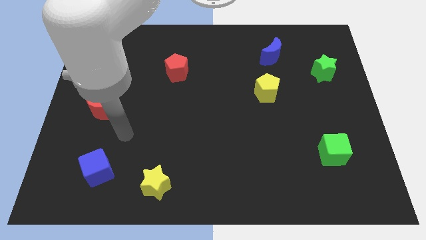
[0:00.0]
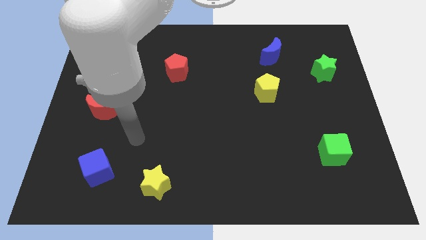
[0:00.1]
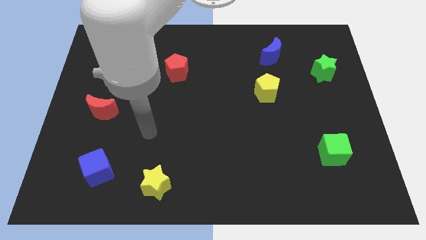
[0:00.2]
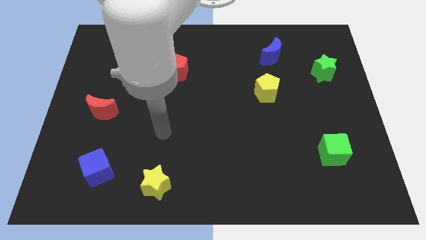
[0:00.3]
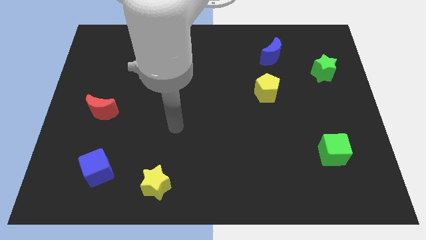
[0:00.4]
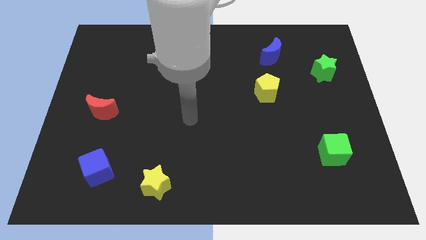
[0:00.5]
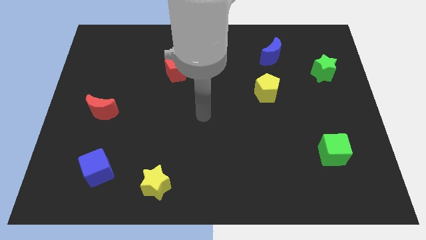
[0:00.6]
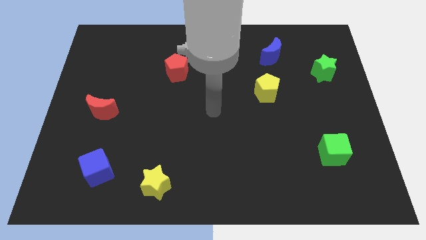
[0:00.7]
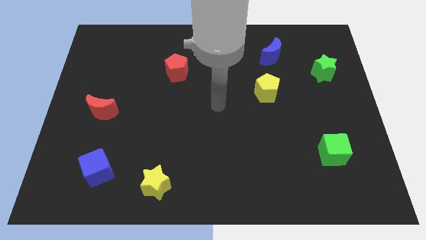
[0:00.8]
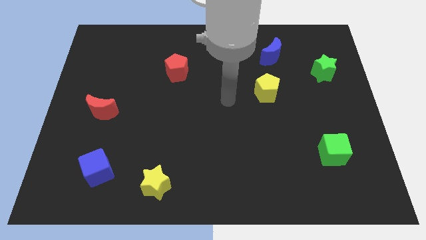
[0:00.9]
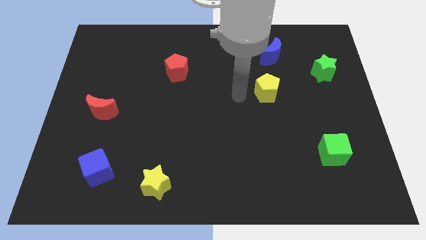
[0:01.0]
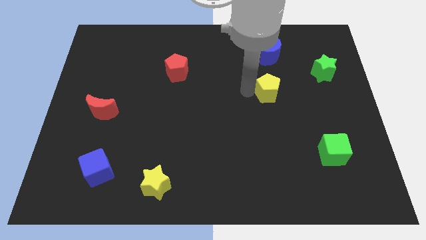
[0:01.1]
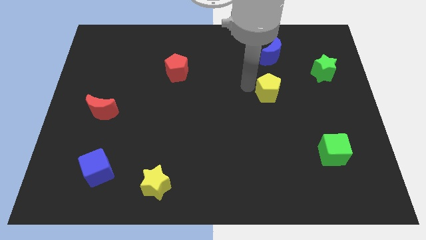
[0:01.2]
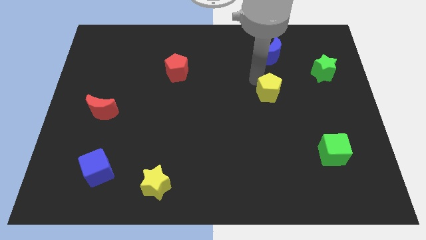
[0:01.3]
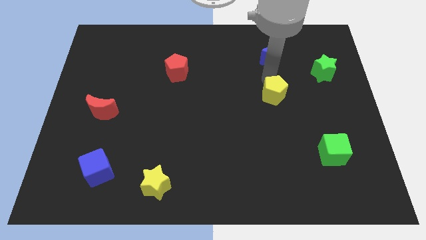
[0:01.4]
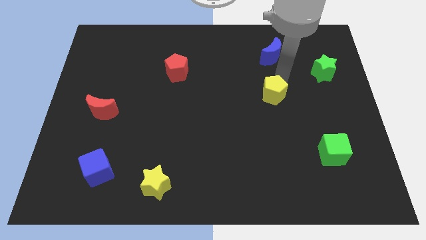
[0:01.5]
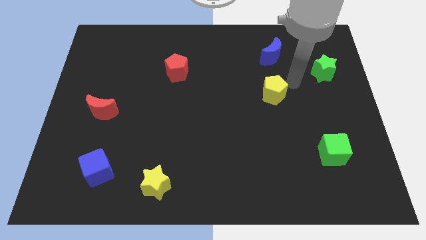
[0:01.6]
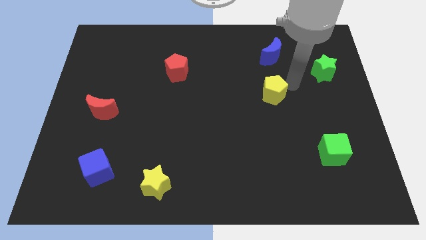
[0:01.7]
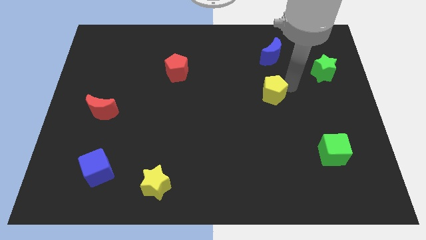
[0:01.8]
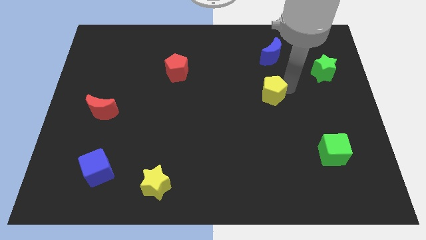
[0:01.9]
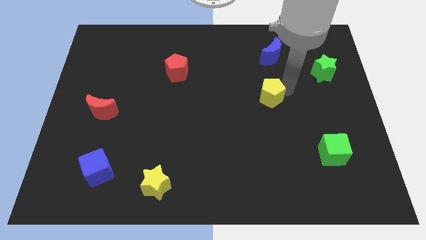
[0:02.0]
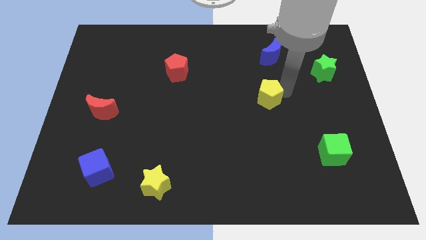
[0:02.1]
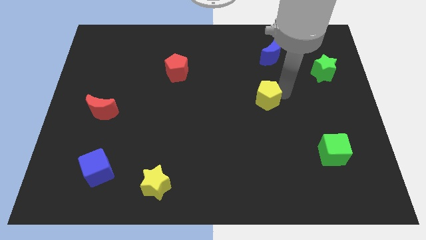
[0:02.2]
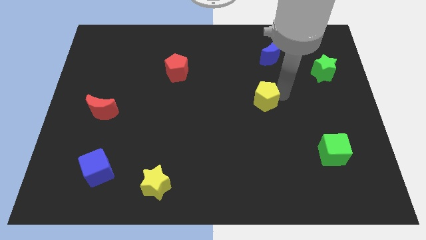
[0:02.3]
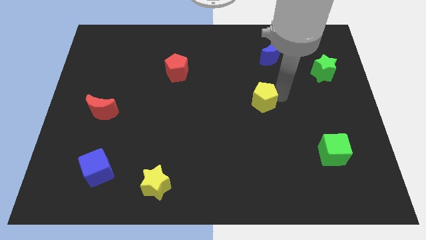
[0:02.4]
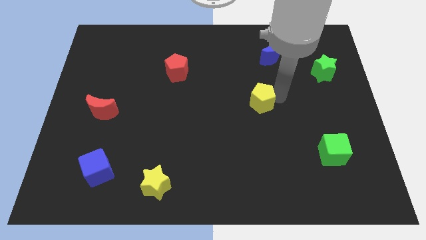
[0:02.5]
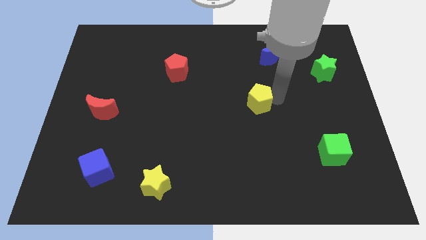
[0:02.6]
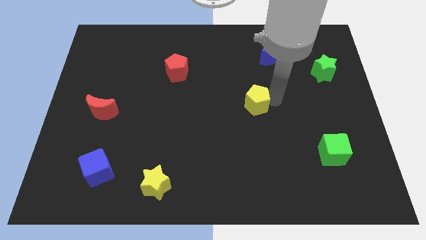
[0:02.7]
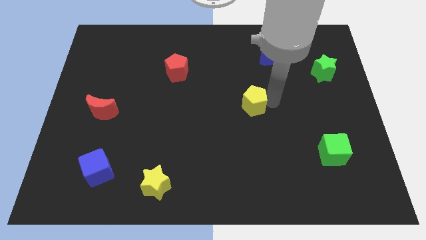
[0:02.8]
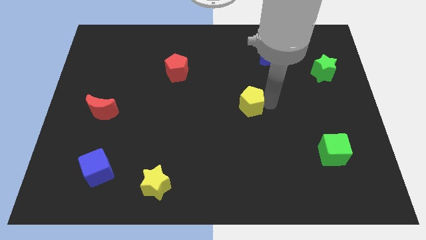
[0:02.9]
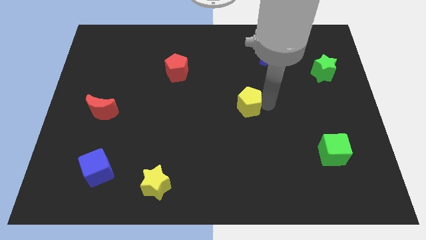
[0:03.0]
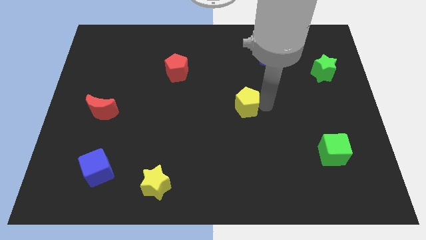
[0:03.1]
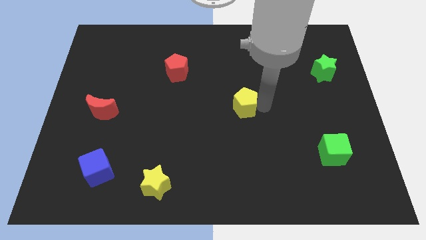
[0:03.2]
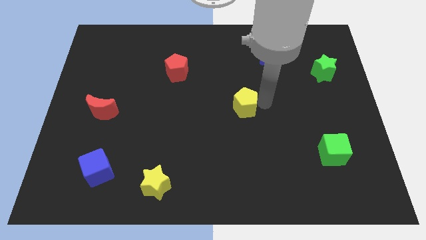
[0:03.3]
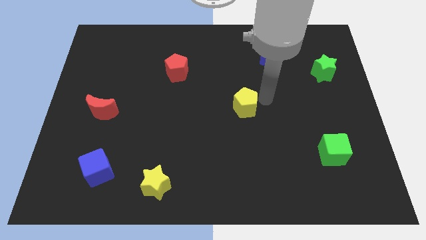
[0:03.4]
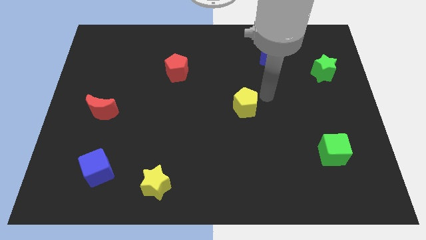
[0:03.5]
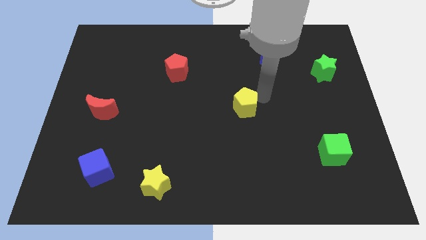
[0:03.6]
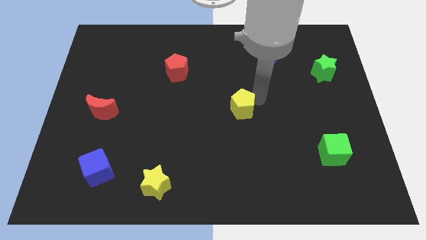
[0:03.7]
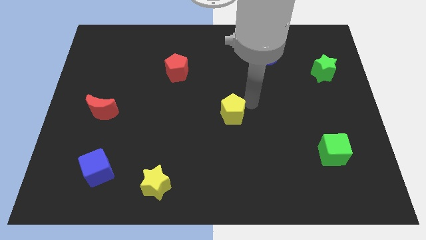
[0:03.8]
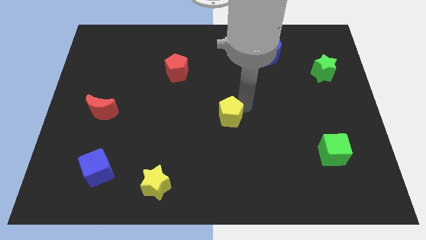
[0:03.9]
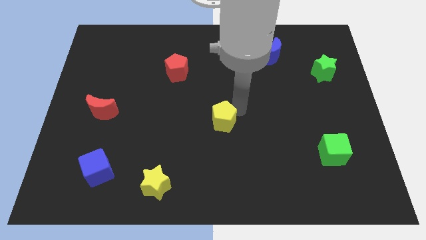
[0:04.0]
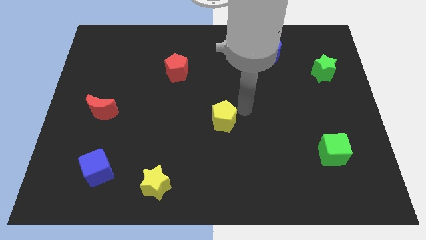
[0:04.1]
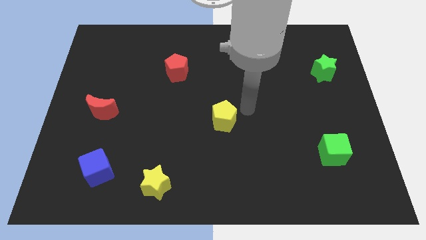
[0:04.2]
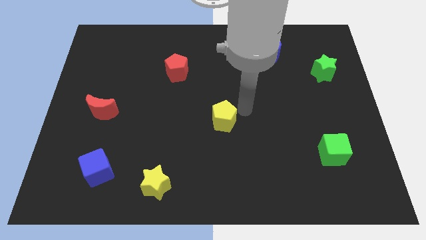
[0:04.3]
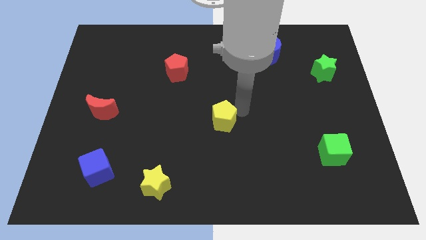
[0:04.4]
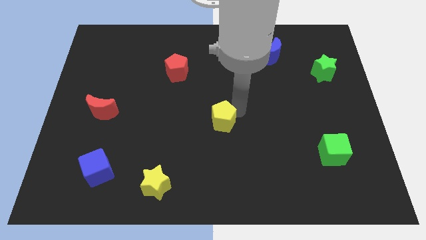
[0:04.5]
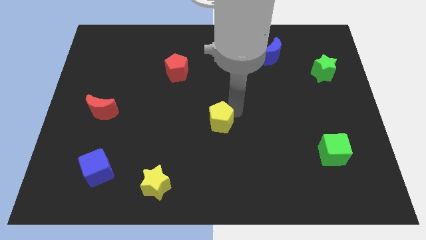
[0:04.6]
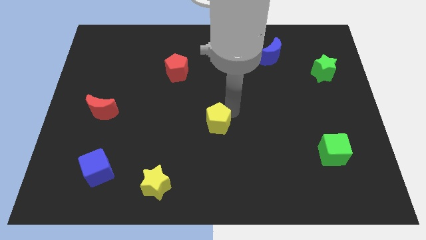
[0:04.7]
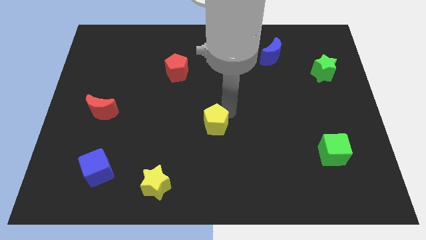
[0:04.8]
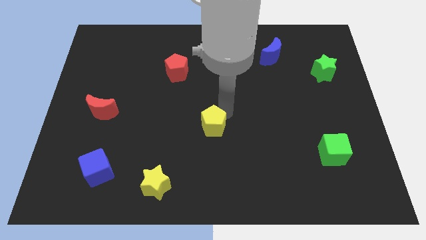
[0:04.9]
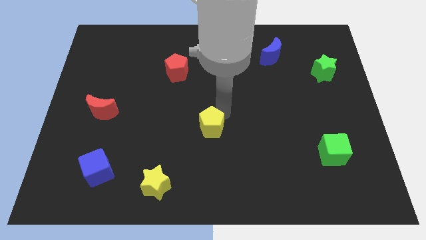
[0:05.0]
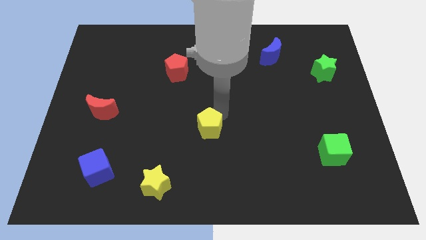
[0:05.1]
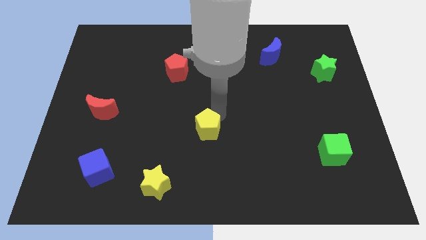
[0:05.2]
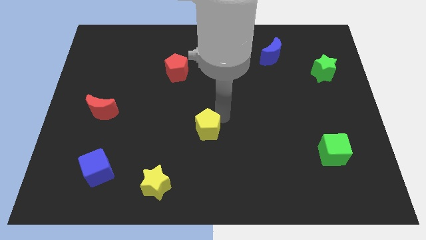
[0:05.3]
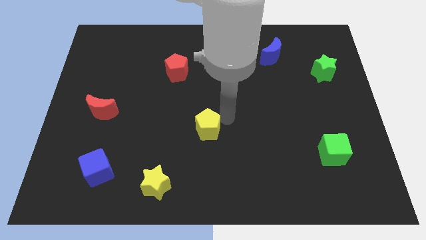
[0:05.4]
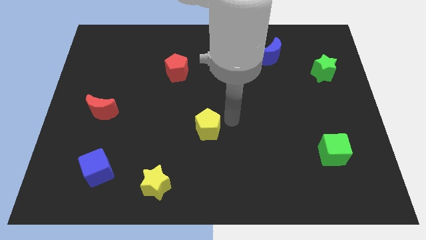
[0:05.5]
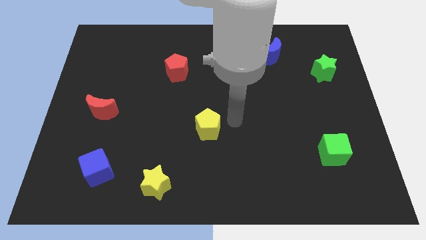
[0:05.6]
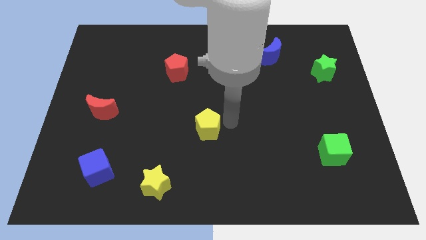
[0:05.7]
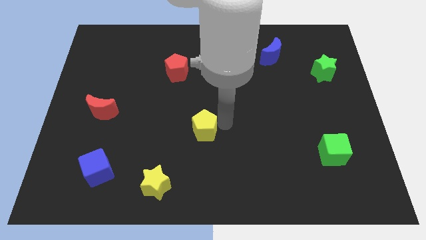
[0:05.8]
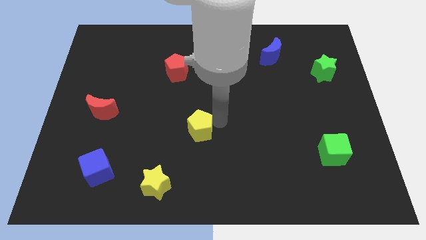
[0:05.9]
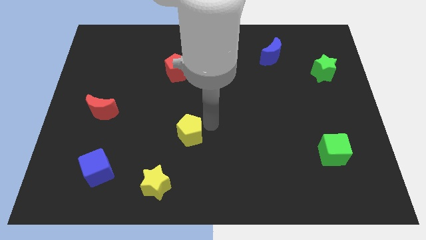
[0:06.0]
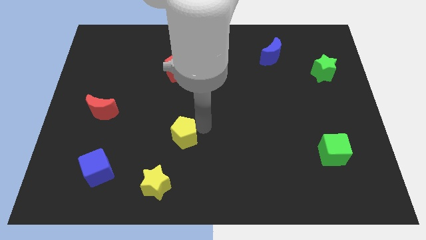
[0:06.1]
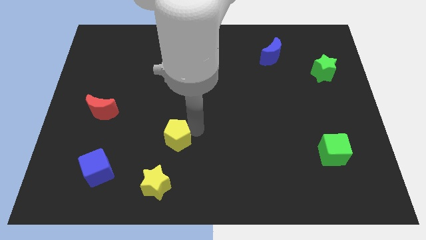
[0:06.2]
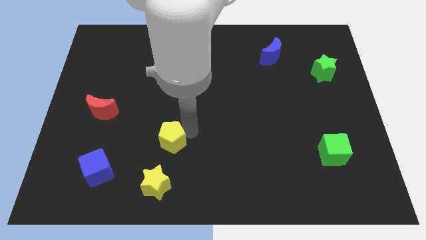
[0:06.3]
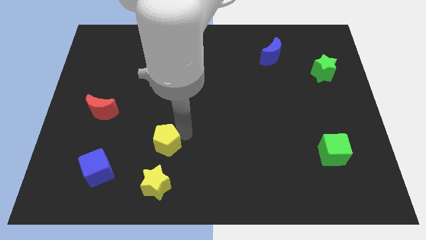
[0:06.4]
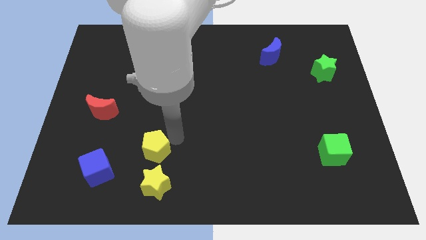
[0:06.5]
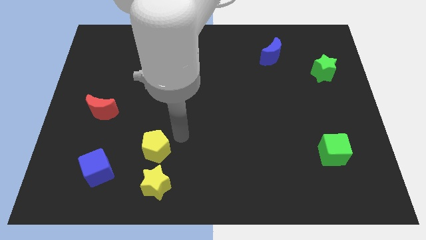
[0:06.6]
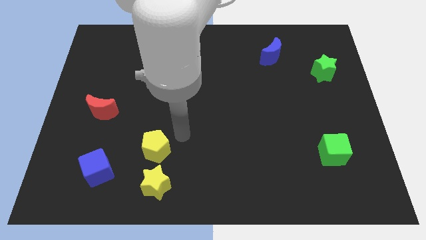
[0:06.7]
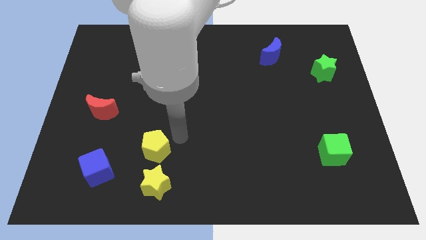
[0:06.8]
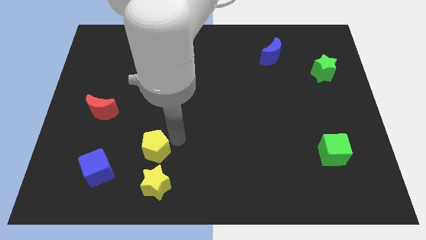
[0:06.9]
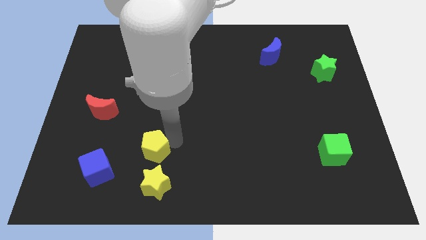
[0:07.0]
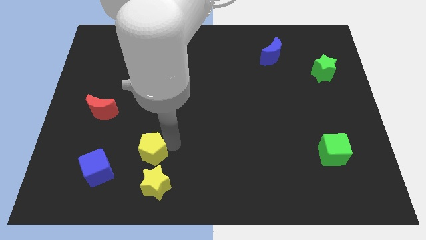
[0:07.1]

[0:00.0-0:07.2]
push the yellow pentagon to the top left side of the yellow star
